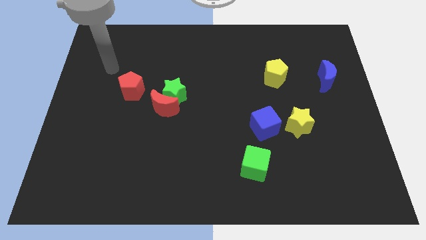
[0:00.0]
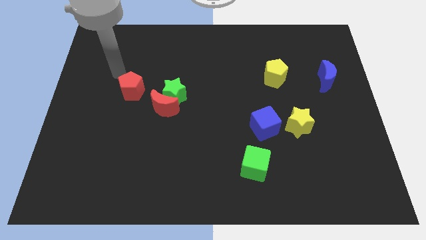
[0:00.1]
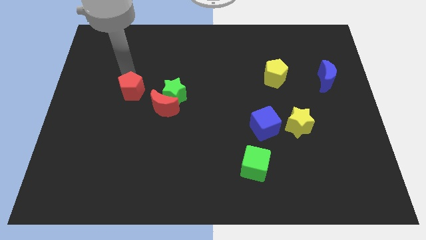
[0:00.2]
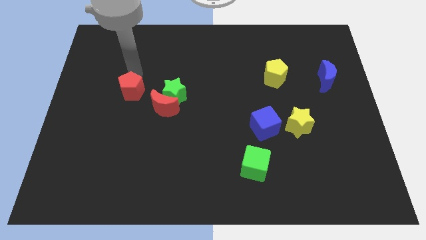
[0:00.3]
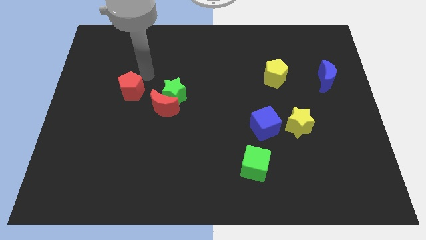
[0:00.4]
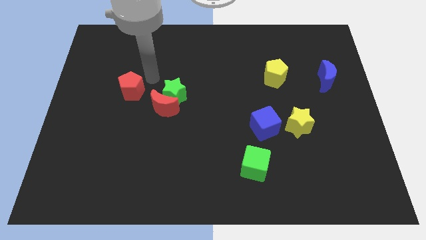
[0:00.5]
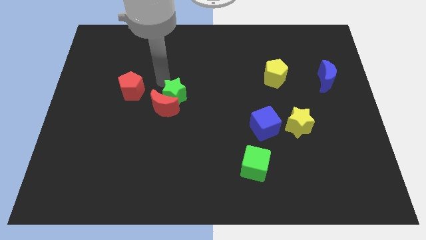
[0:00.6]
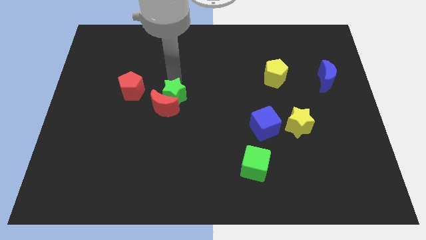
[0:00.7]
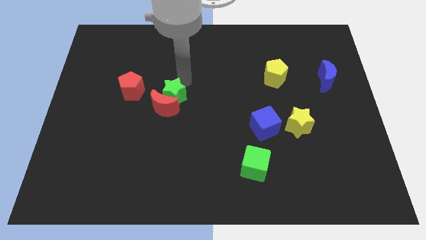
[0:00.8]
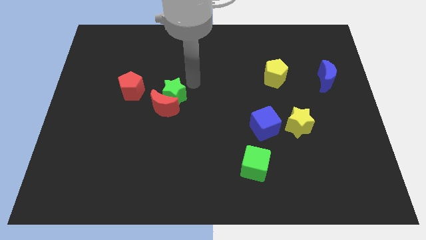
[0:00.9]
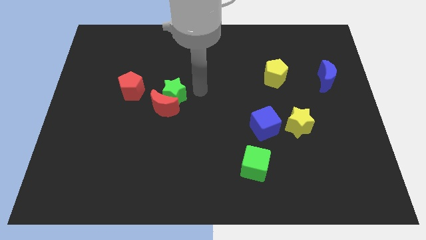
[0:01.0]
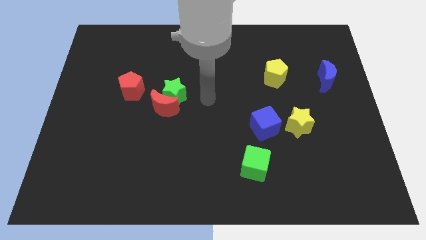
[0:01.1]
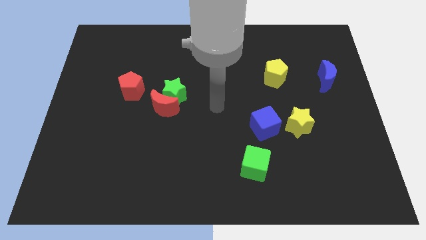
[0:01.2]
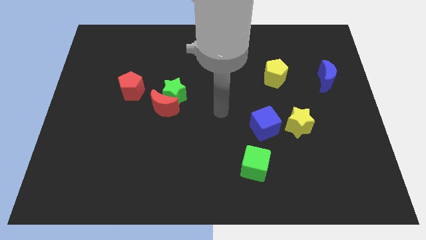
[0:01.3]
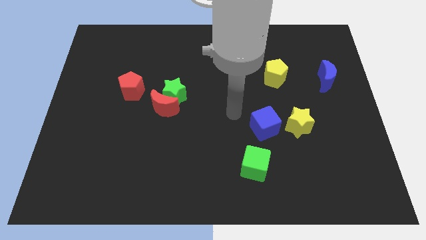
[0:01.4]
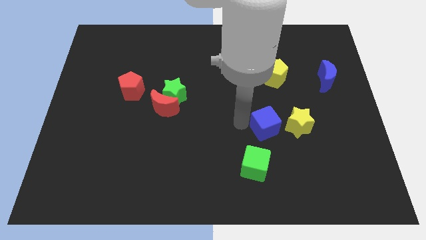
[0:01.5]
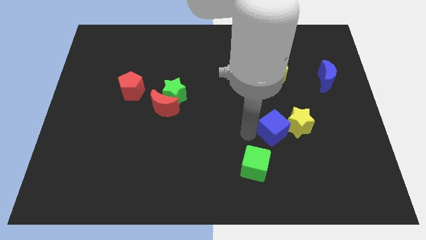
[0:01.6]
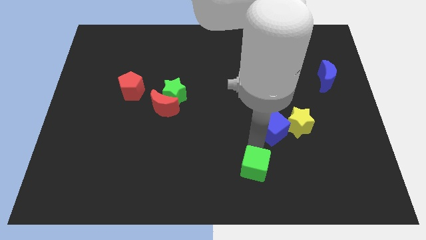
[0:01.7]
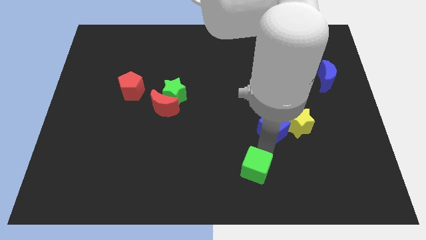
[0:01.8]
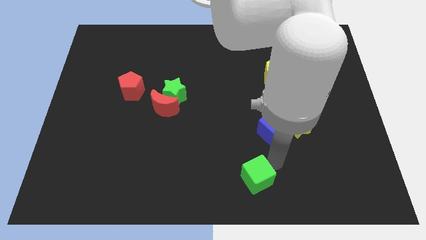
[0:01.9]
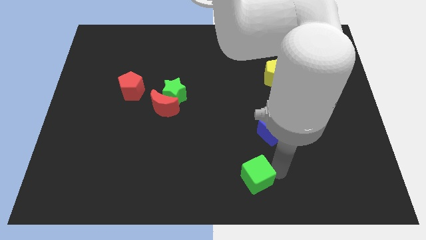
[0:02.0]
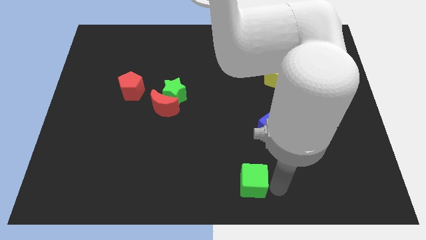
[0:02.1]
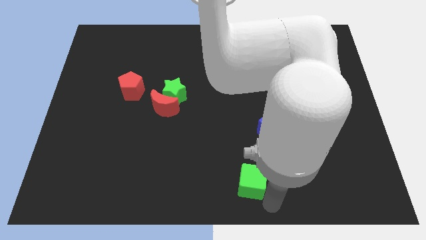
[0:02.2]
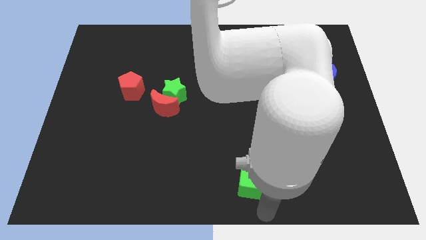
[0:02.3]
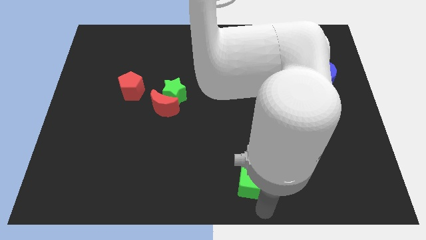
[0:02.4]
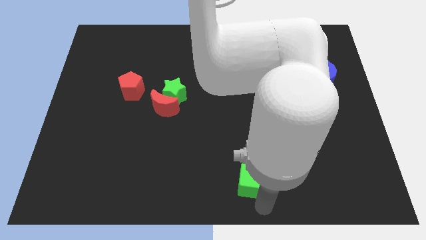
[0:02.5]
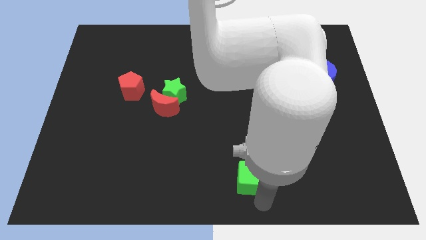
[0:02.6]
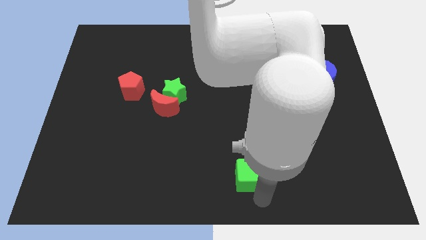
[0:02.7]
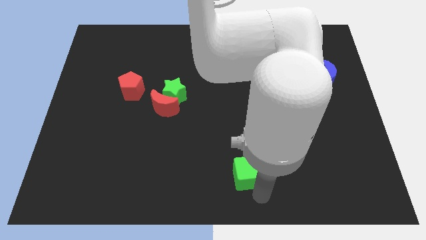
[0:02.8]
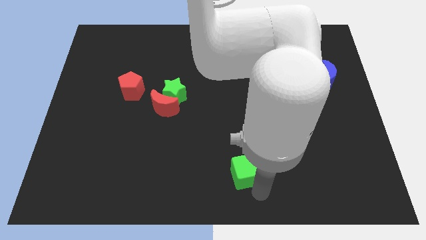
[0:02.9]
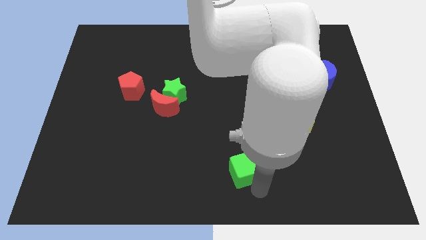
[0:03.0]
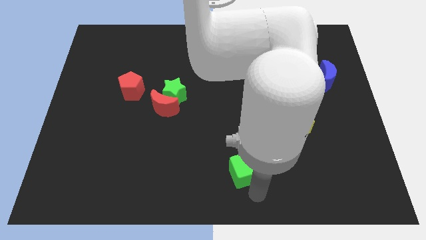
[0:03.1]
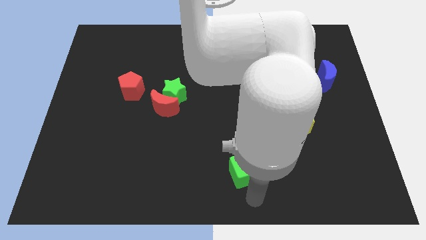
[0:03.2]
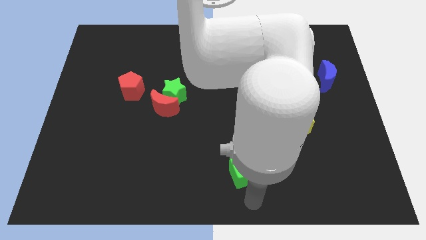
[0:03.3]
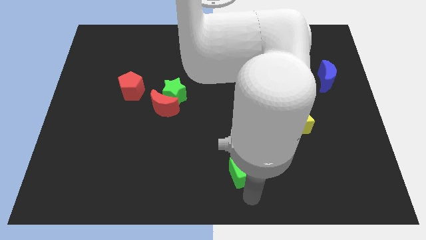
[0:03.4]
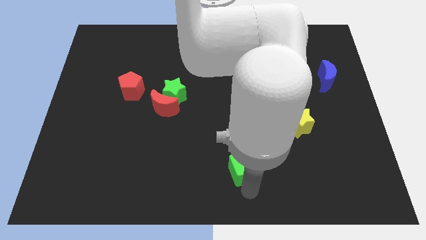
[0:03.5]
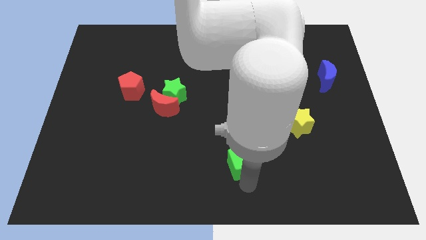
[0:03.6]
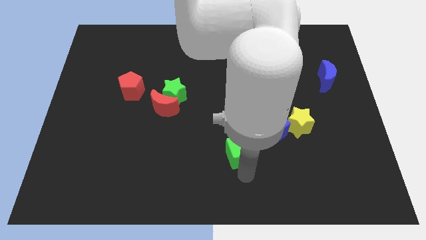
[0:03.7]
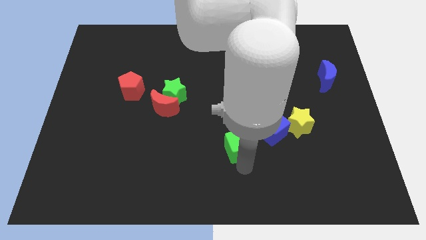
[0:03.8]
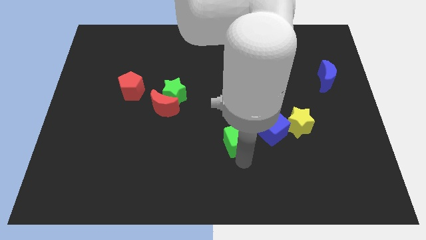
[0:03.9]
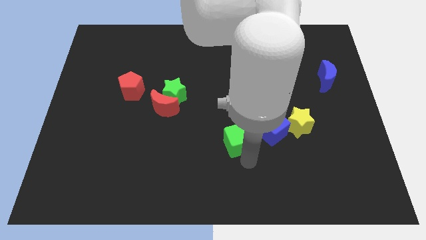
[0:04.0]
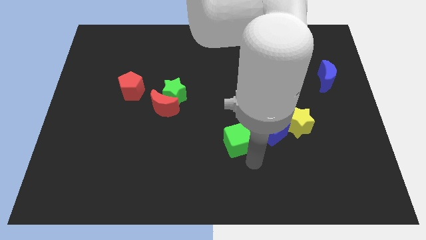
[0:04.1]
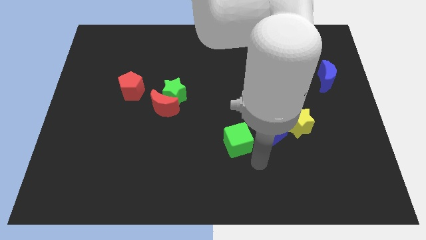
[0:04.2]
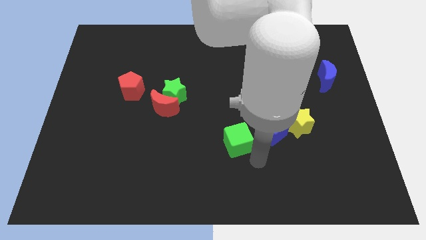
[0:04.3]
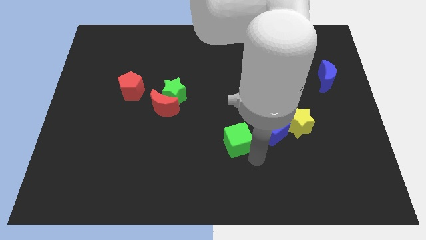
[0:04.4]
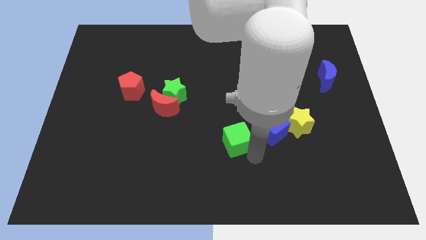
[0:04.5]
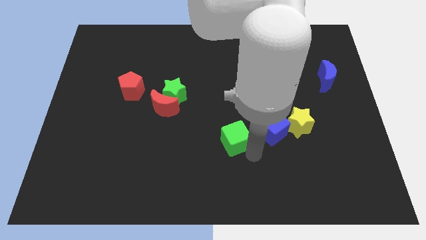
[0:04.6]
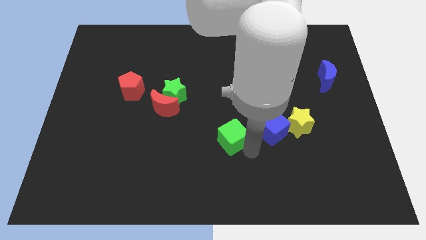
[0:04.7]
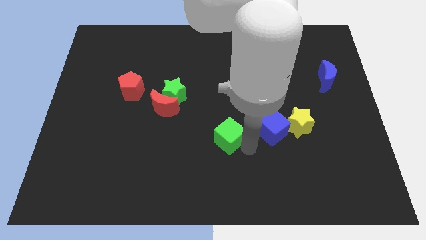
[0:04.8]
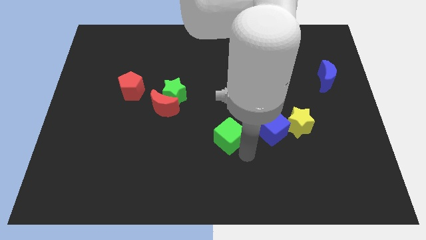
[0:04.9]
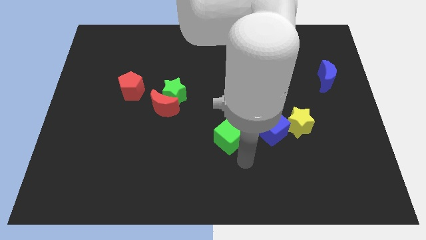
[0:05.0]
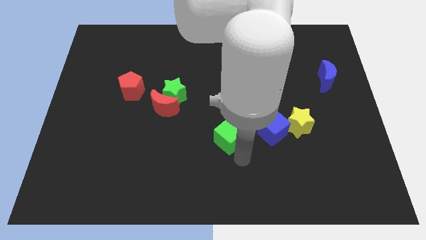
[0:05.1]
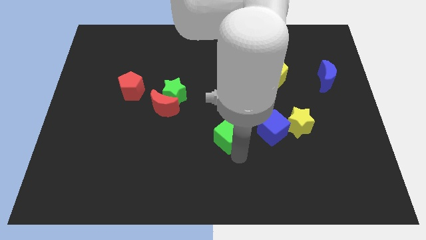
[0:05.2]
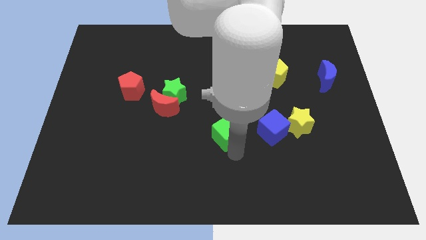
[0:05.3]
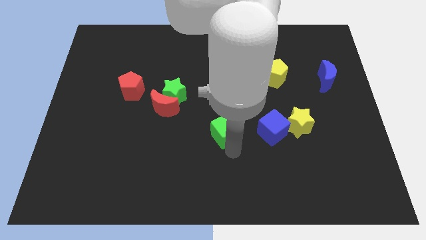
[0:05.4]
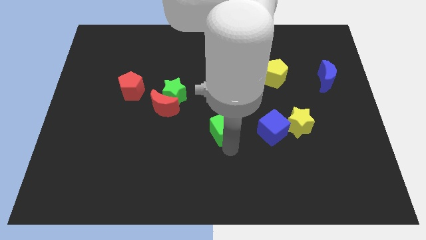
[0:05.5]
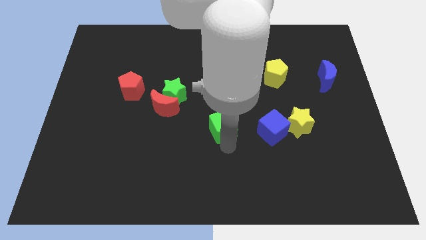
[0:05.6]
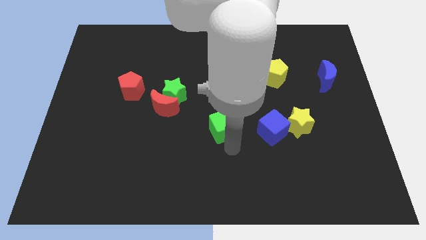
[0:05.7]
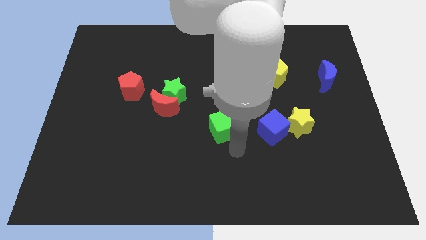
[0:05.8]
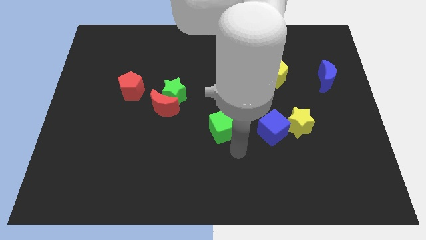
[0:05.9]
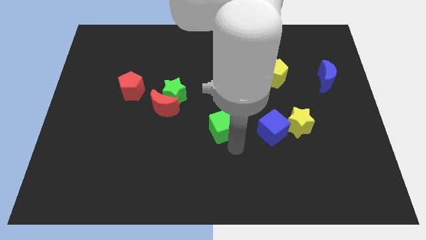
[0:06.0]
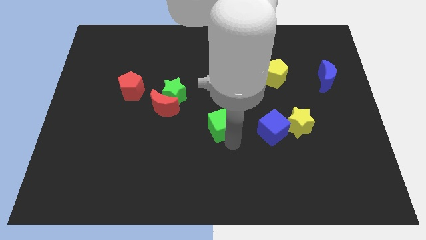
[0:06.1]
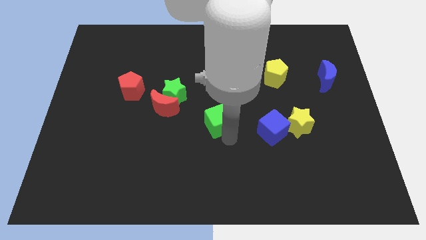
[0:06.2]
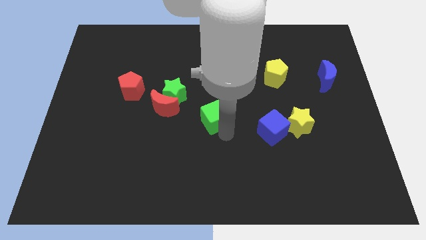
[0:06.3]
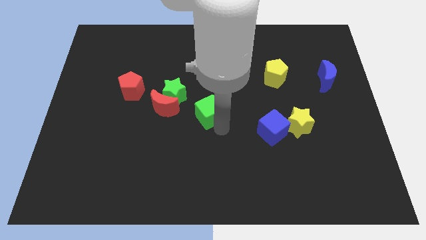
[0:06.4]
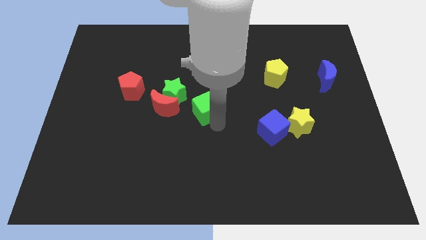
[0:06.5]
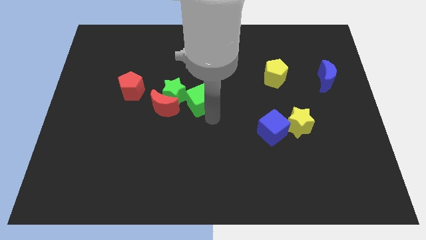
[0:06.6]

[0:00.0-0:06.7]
move the green cube diagonally up and to the right of the red moon
